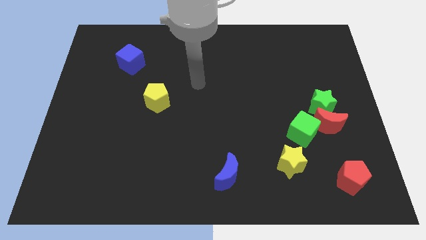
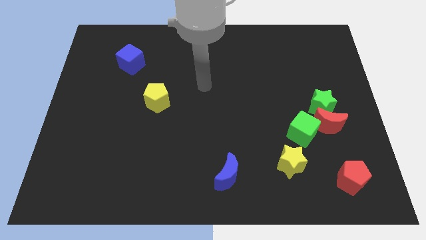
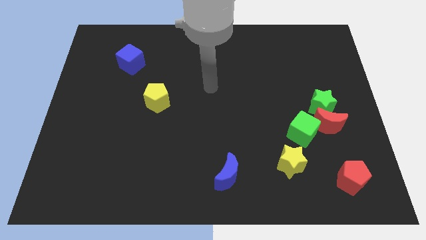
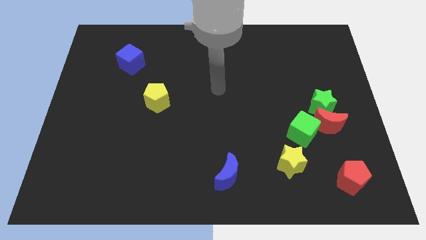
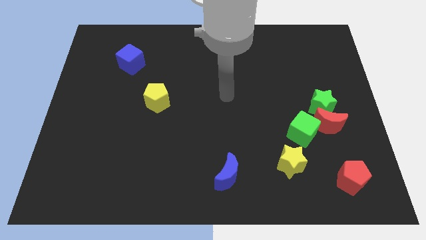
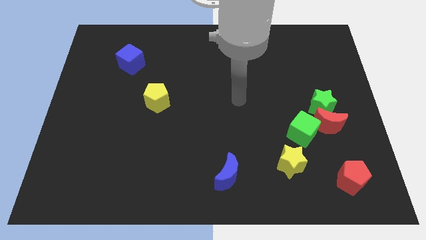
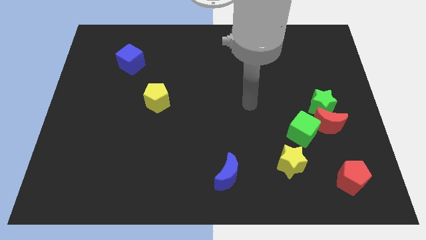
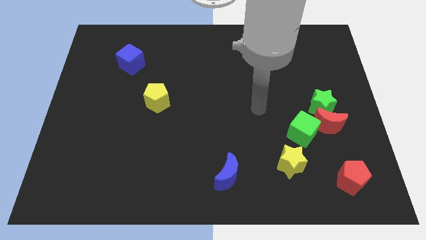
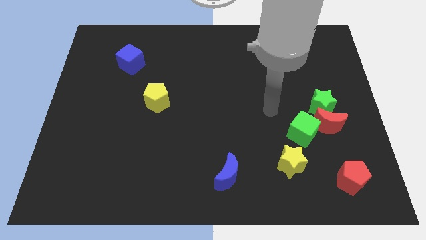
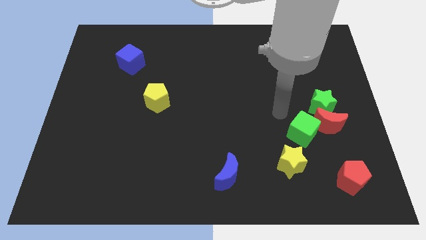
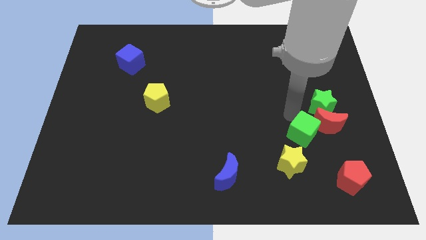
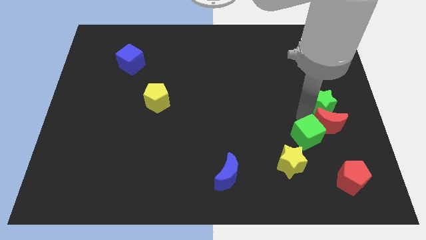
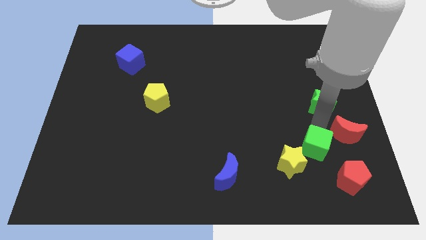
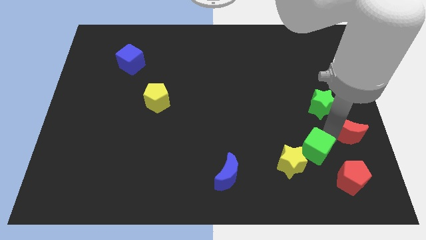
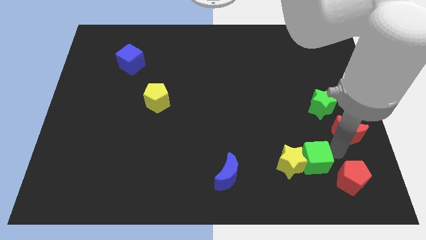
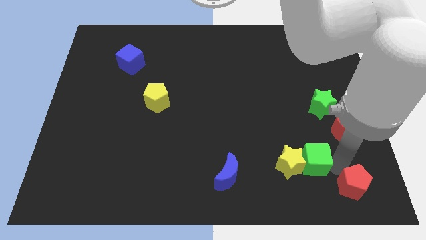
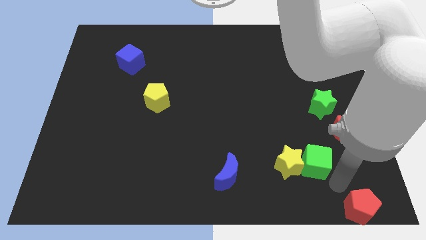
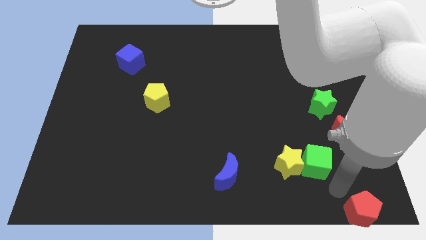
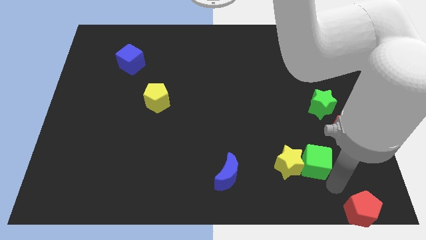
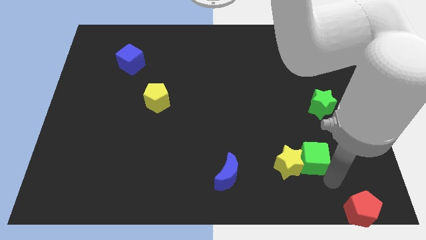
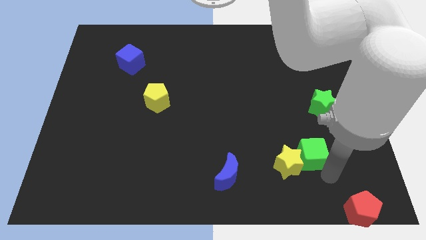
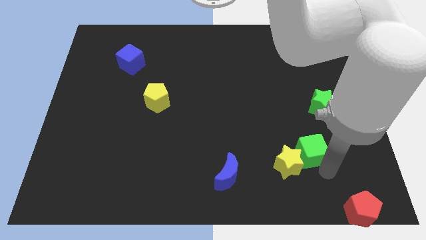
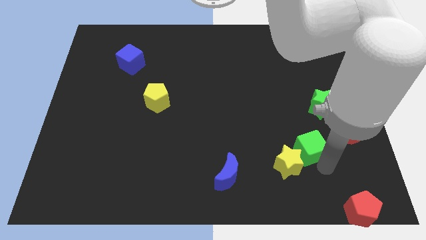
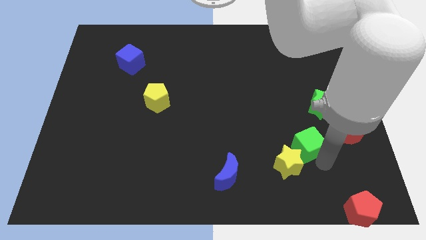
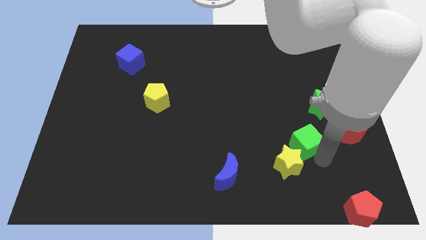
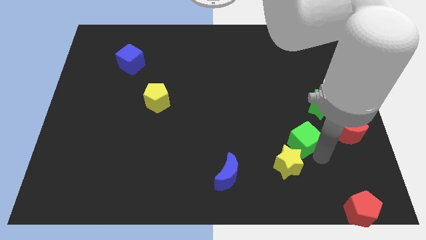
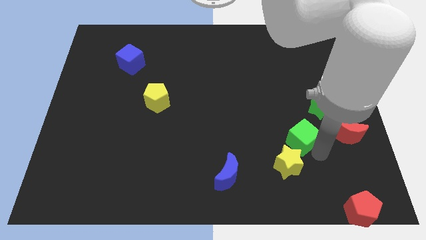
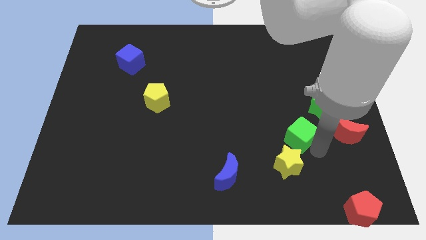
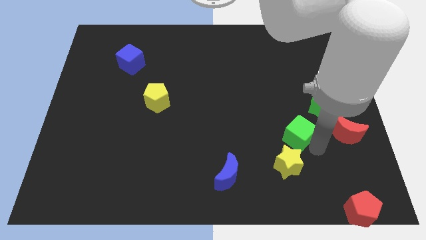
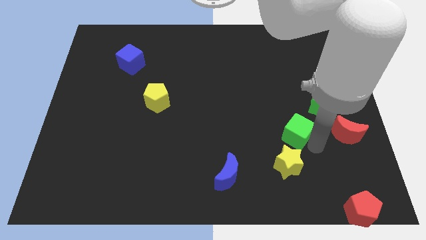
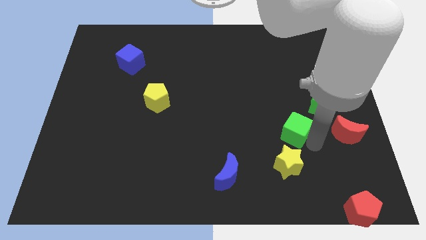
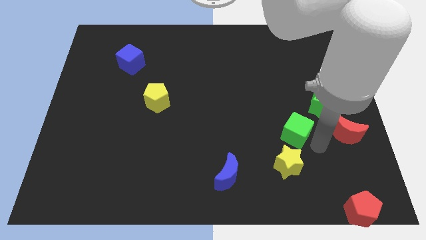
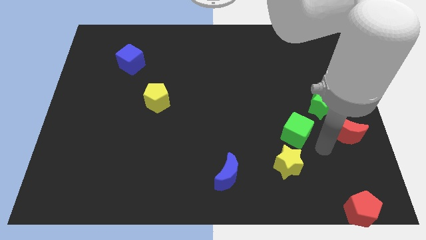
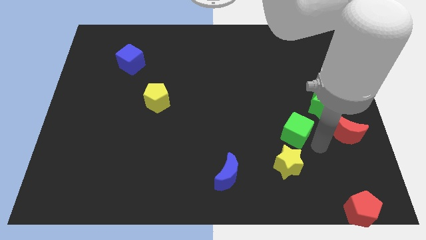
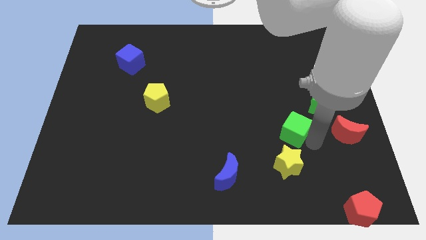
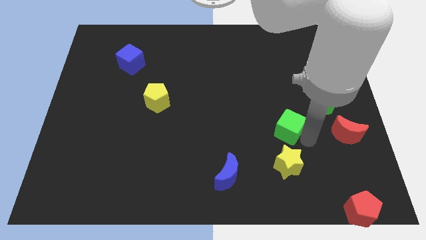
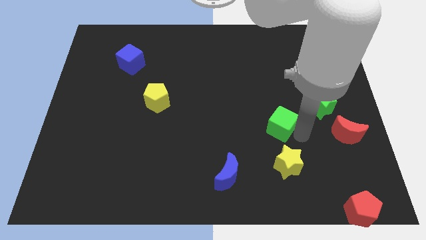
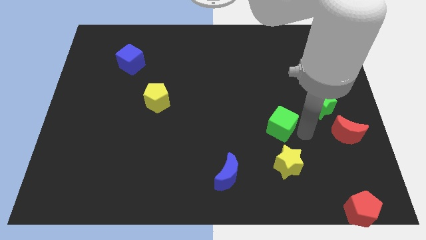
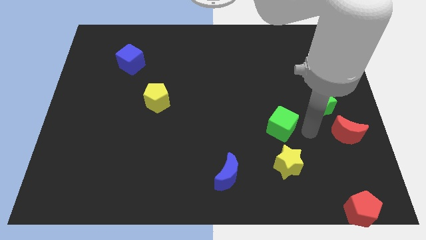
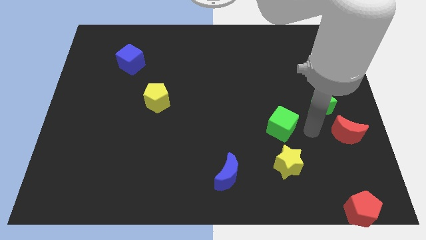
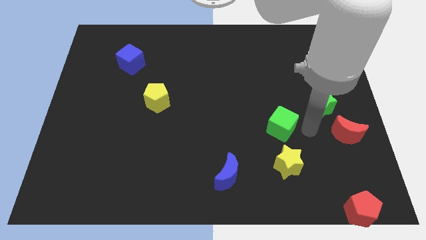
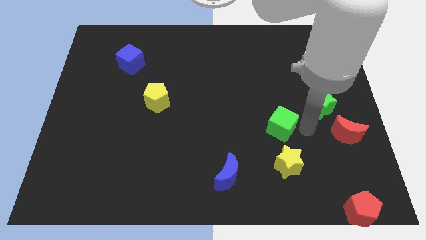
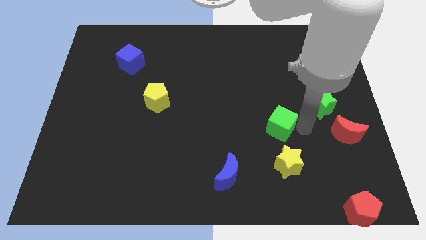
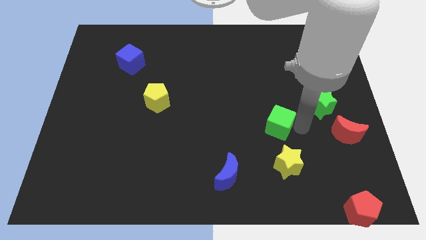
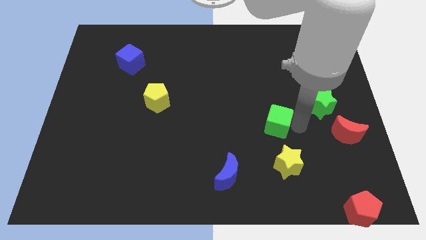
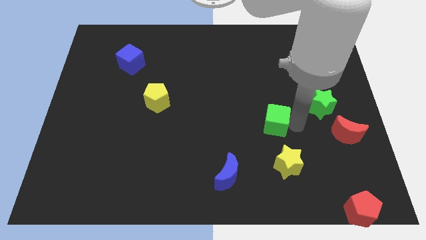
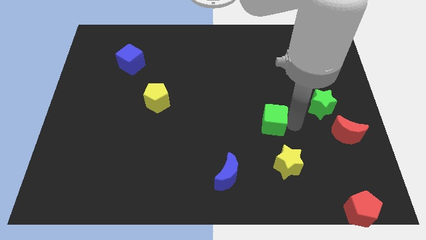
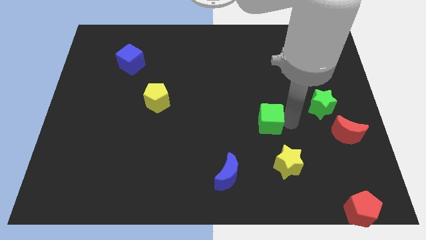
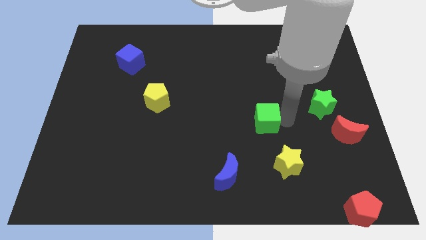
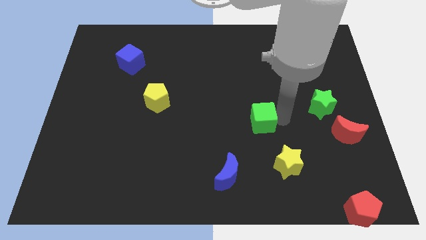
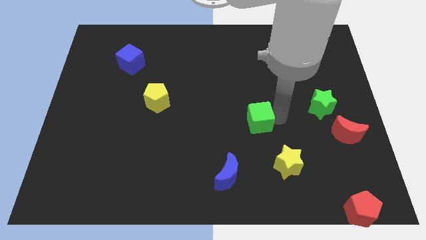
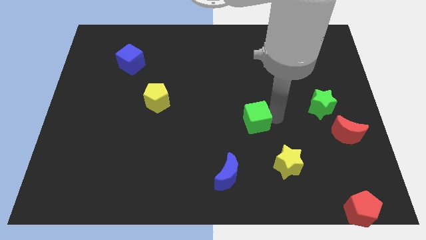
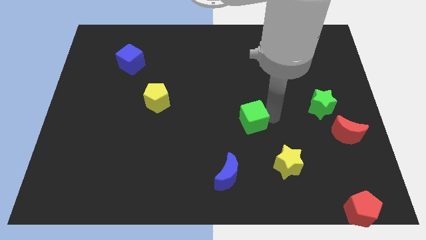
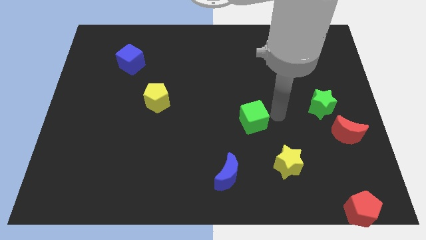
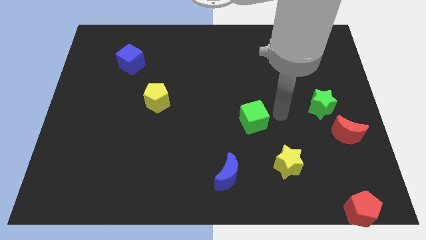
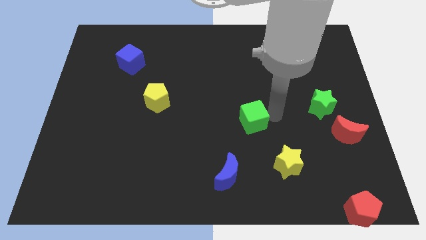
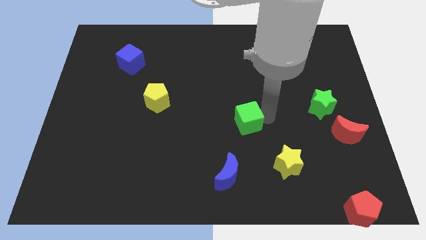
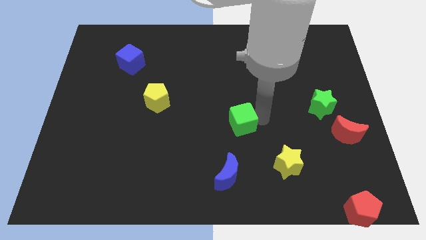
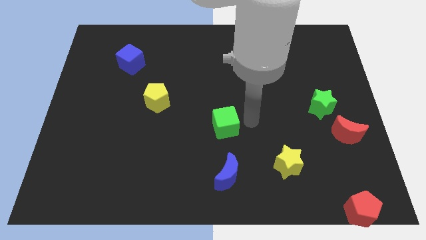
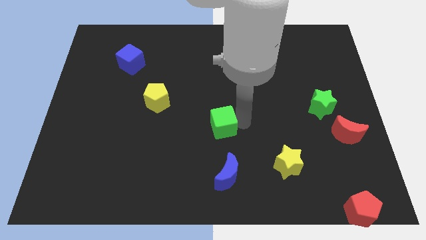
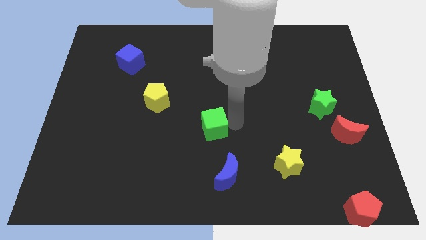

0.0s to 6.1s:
move the green cube left

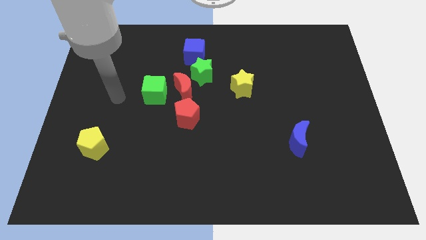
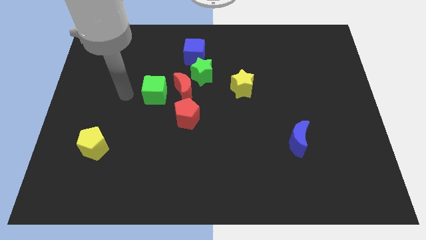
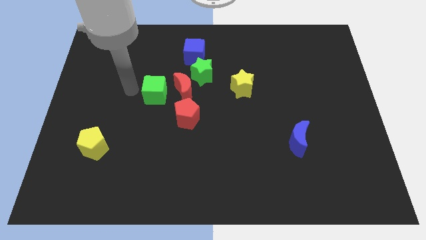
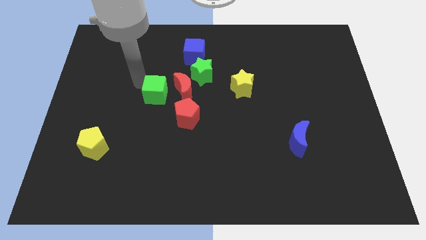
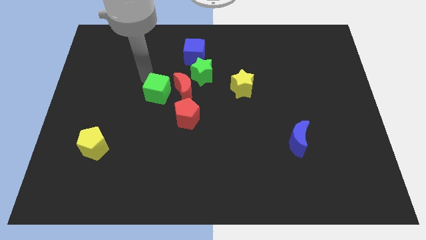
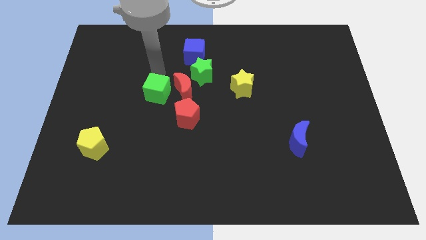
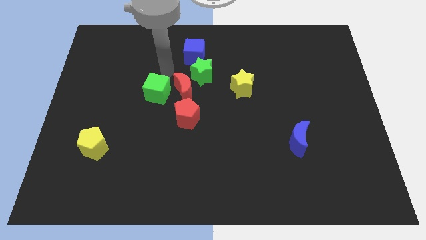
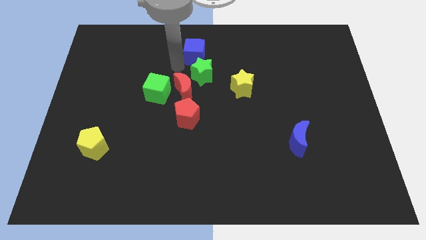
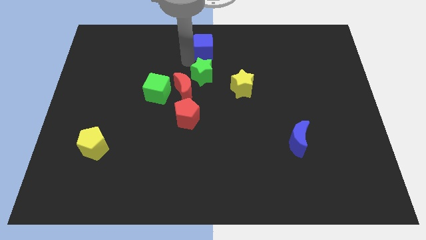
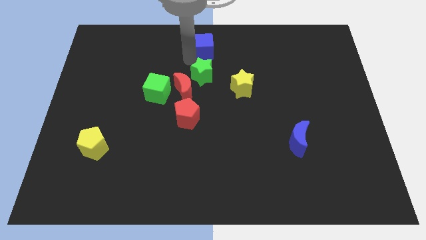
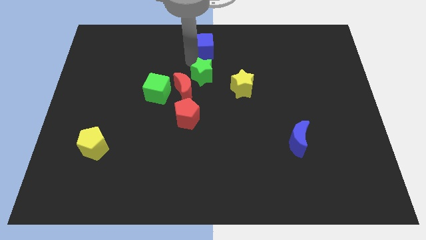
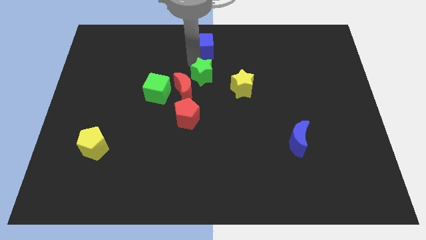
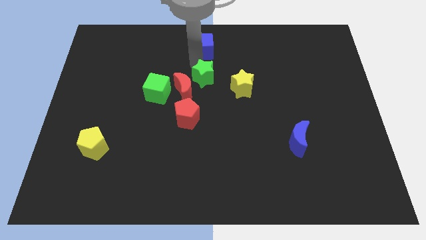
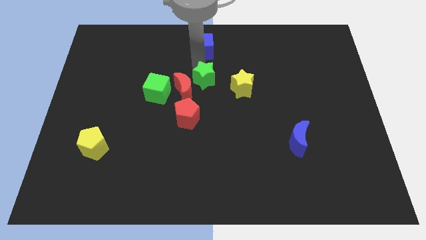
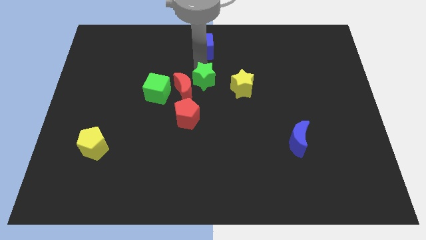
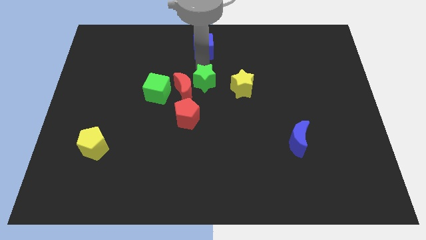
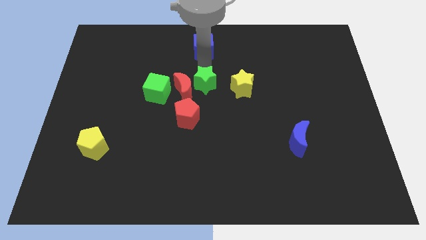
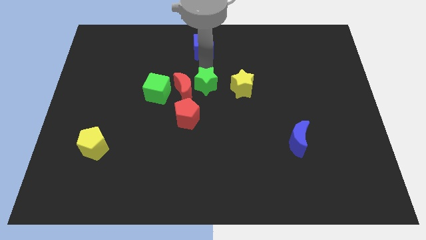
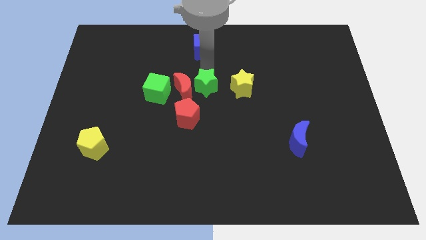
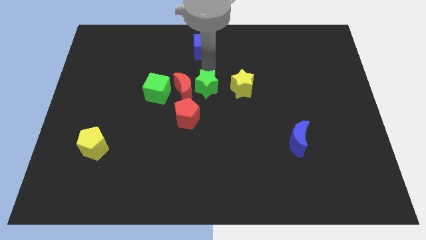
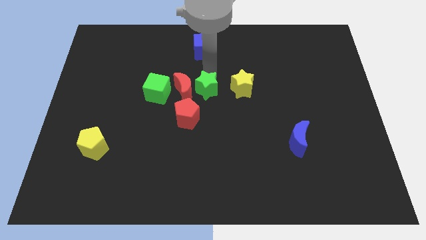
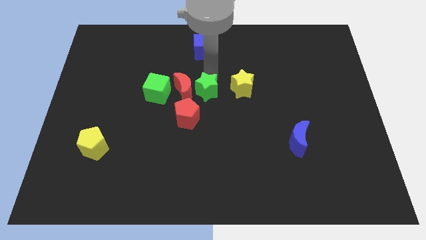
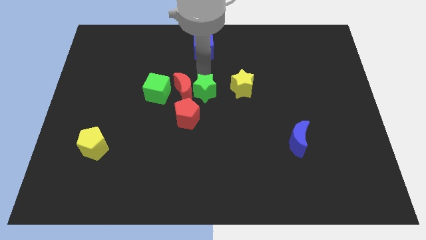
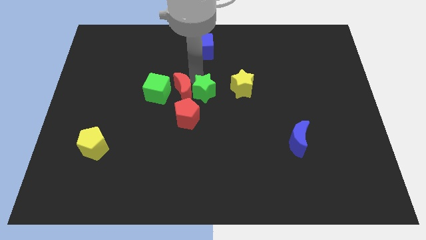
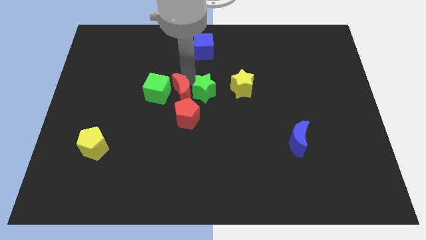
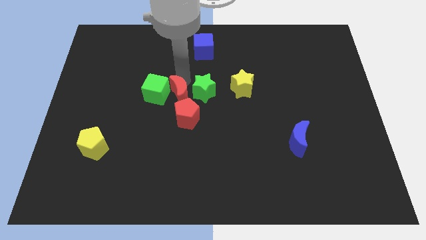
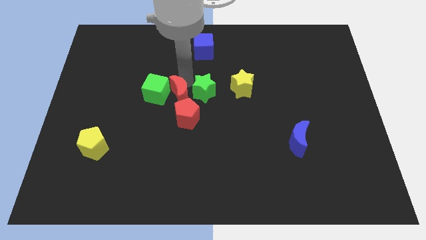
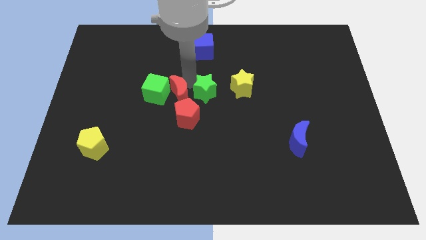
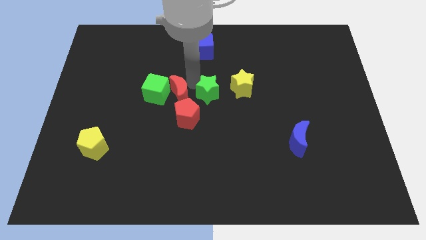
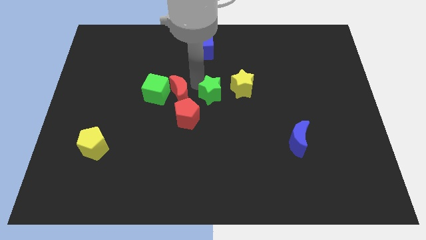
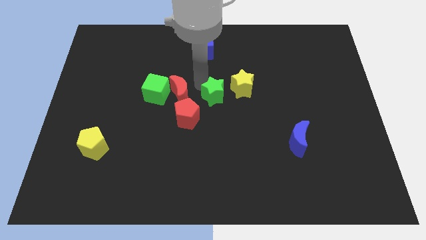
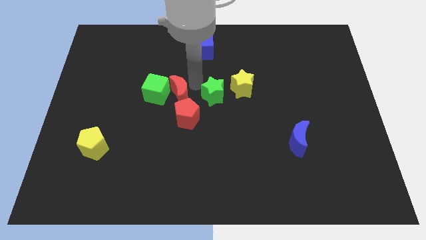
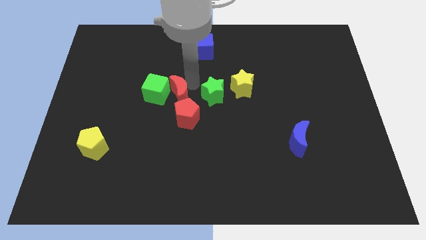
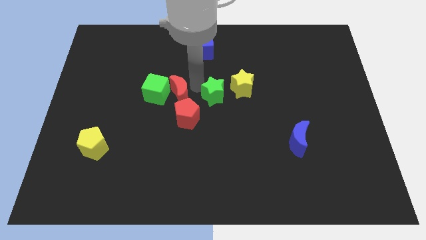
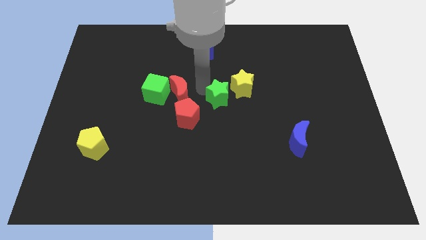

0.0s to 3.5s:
slide the green star slightly diagonally down and right
